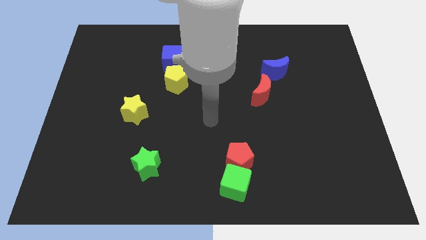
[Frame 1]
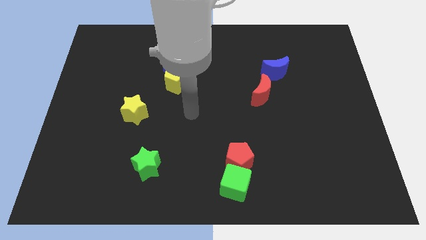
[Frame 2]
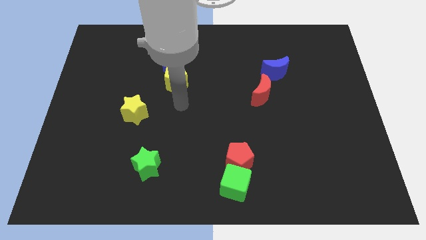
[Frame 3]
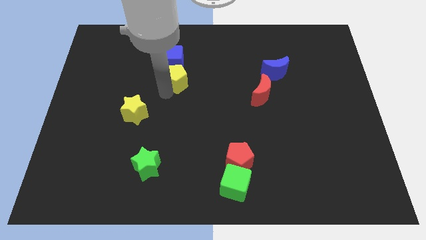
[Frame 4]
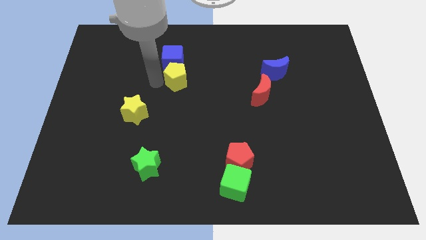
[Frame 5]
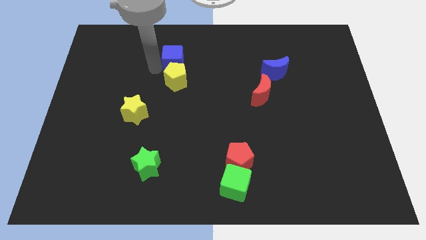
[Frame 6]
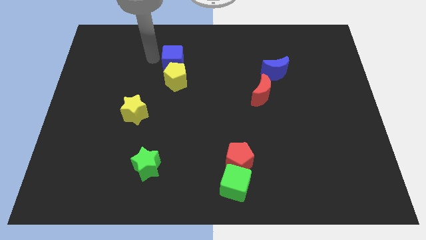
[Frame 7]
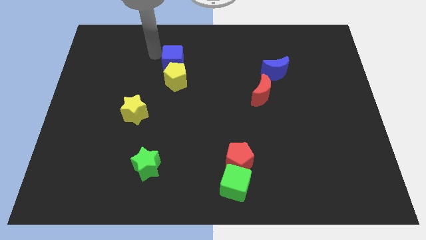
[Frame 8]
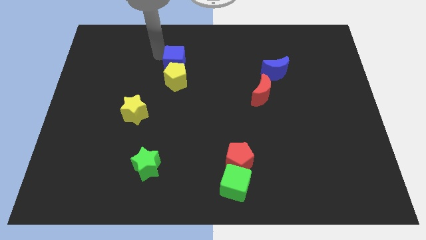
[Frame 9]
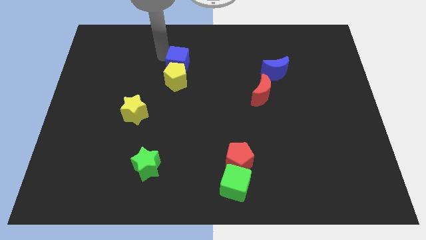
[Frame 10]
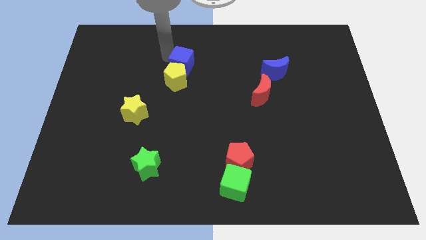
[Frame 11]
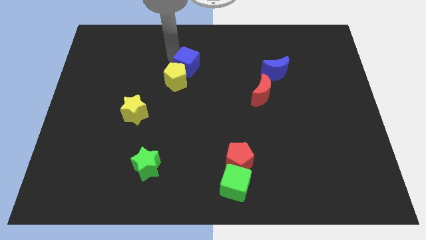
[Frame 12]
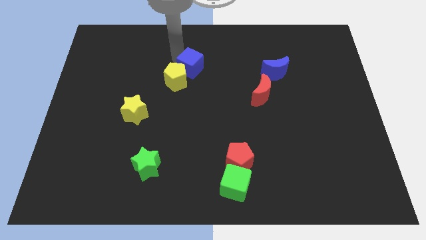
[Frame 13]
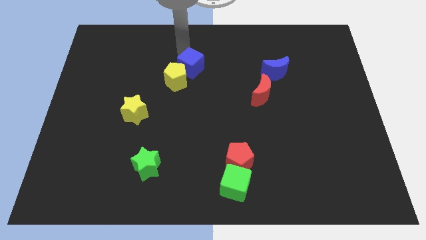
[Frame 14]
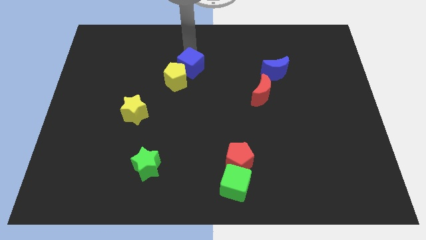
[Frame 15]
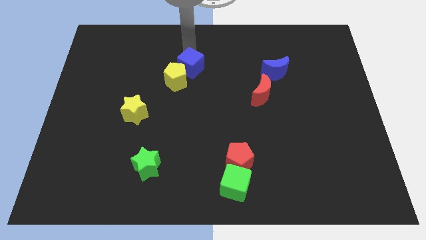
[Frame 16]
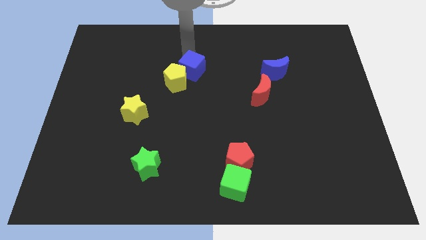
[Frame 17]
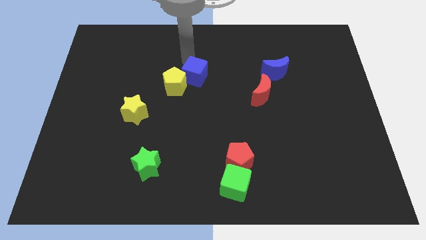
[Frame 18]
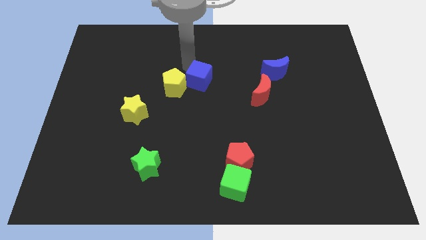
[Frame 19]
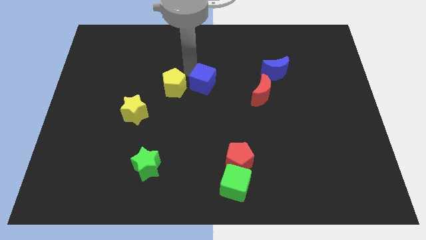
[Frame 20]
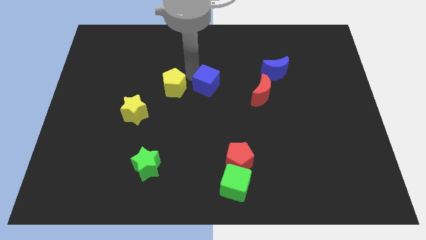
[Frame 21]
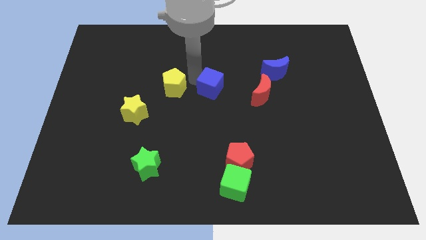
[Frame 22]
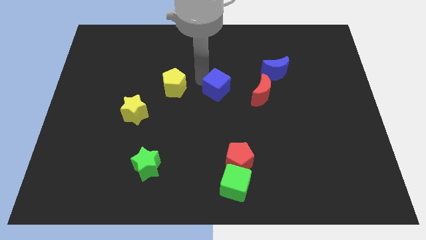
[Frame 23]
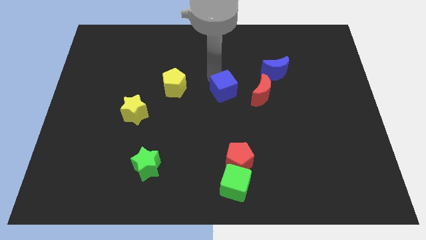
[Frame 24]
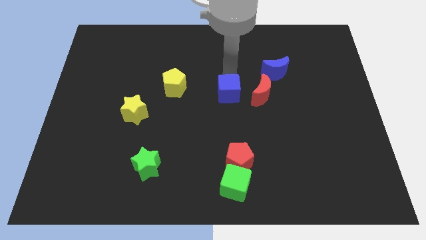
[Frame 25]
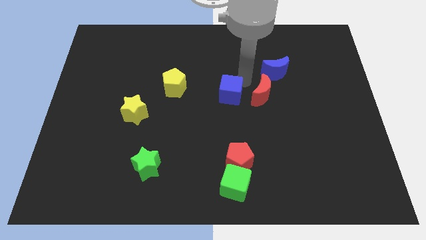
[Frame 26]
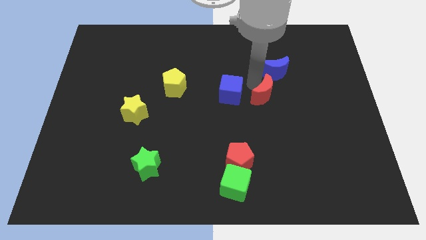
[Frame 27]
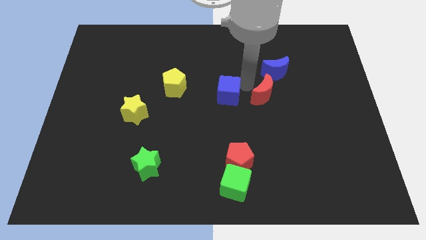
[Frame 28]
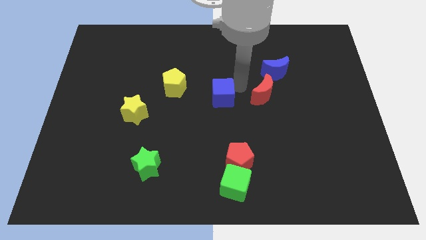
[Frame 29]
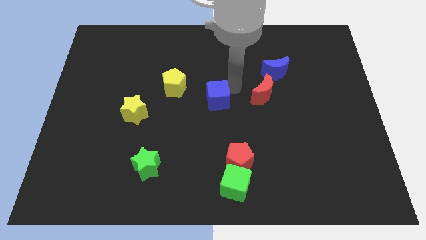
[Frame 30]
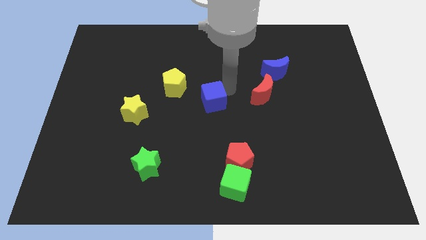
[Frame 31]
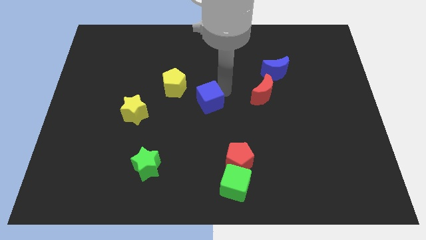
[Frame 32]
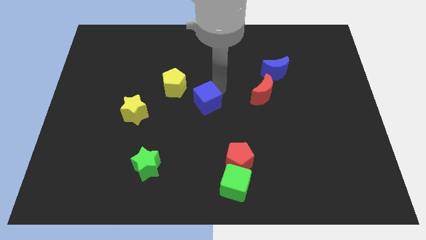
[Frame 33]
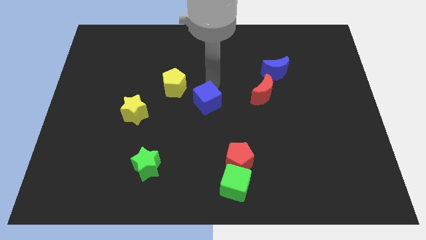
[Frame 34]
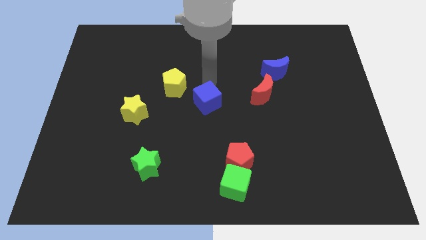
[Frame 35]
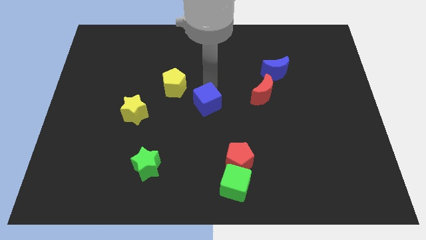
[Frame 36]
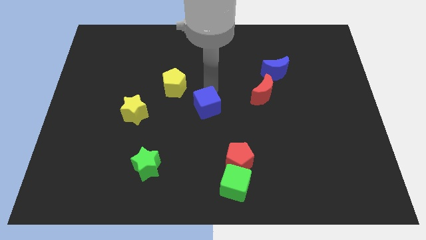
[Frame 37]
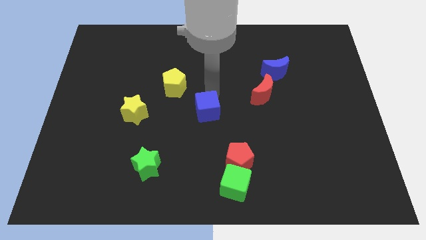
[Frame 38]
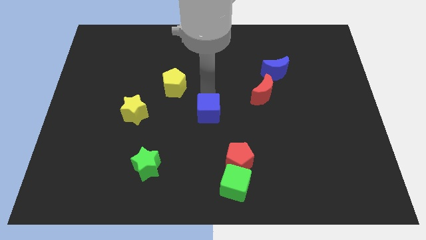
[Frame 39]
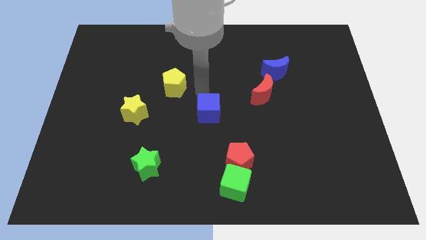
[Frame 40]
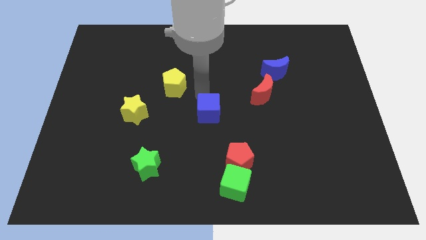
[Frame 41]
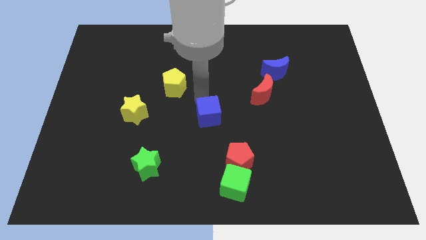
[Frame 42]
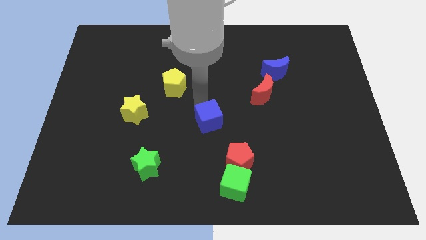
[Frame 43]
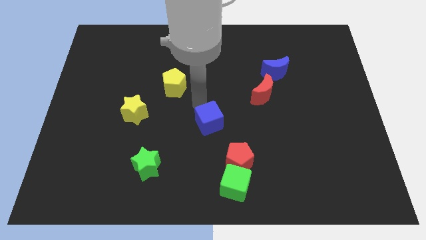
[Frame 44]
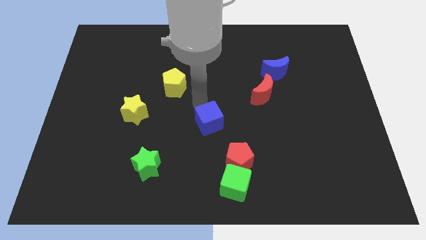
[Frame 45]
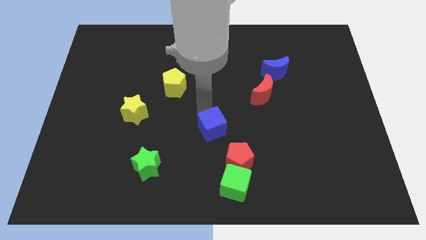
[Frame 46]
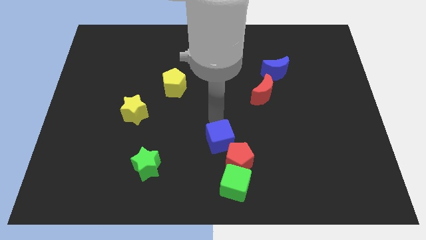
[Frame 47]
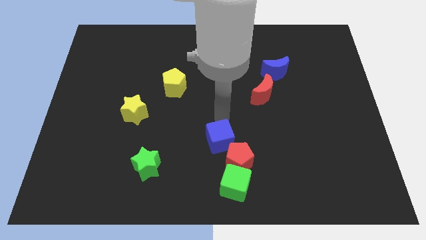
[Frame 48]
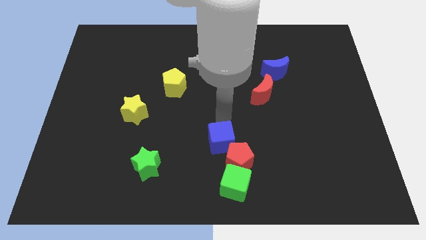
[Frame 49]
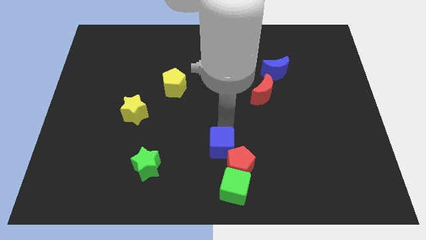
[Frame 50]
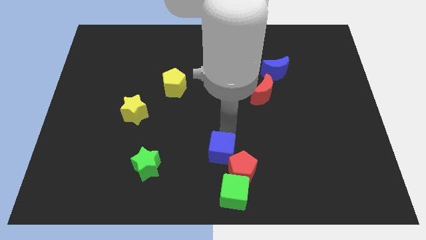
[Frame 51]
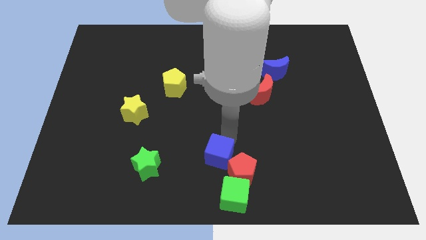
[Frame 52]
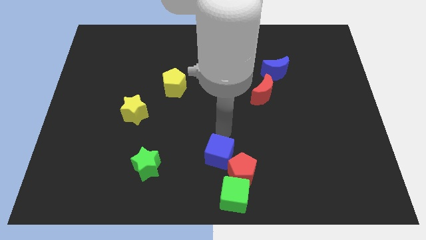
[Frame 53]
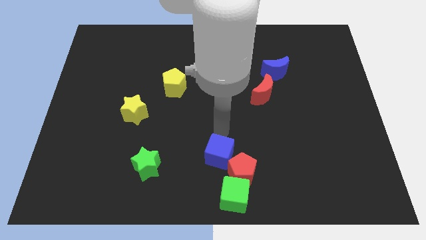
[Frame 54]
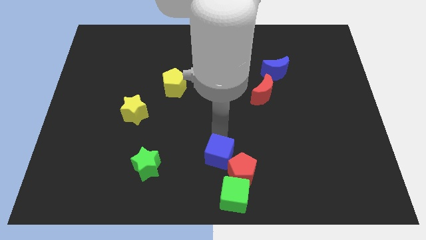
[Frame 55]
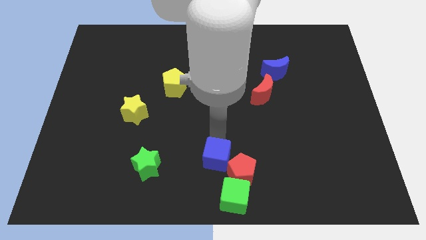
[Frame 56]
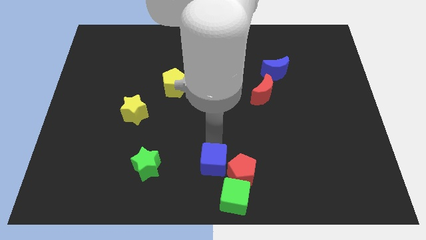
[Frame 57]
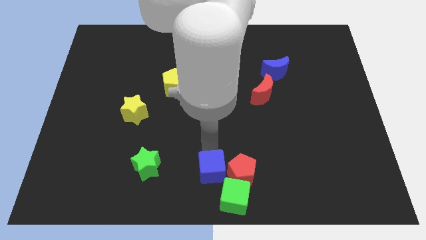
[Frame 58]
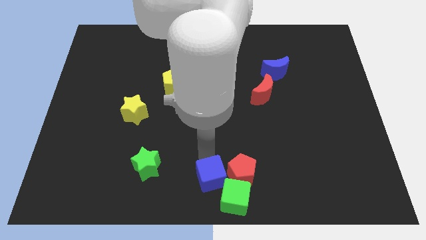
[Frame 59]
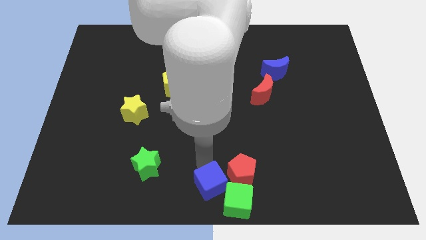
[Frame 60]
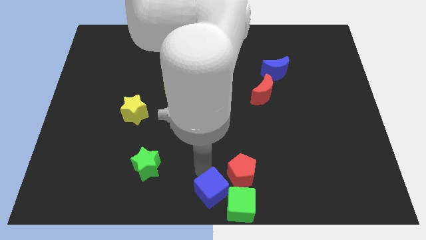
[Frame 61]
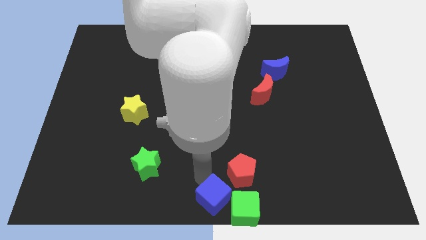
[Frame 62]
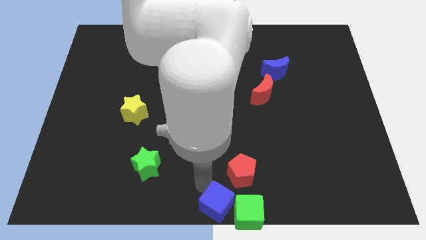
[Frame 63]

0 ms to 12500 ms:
slide the blue cube close to the green cube
